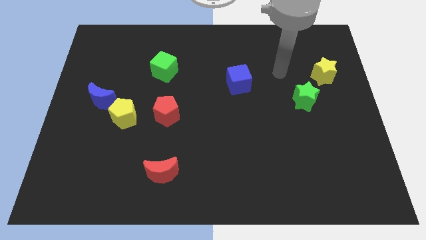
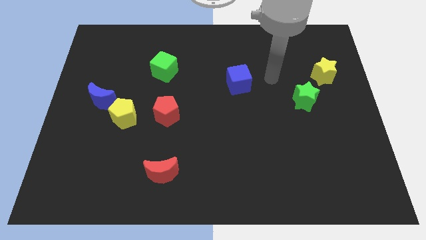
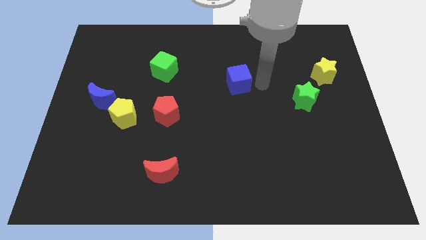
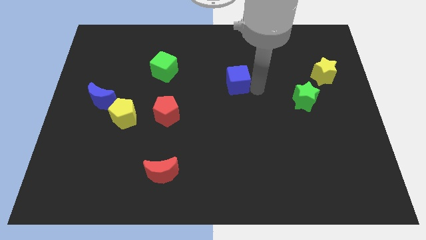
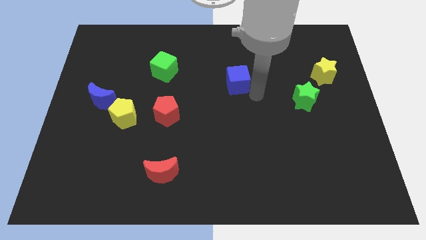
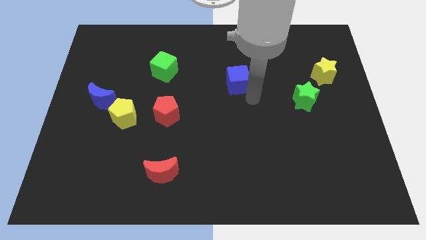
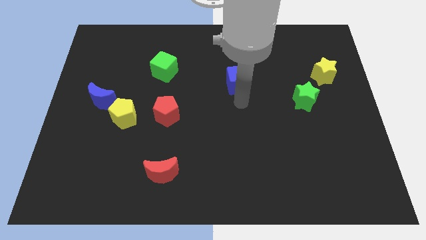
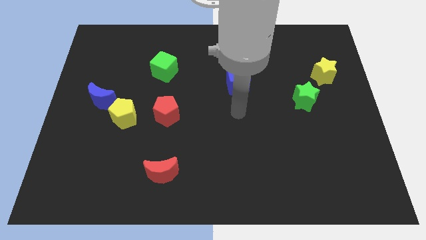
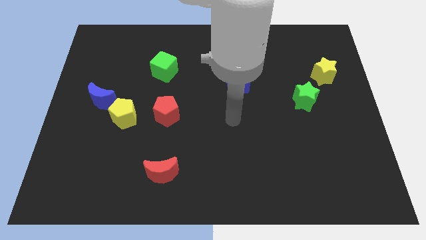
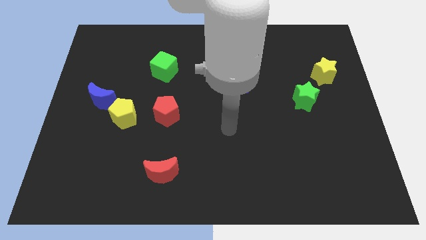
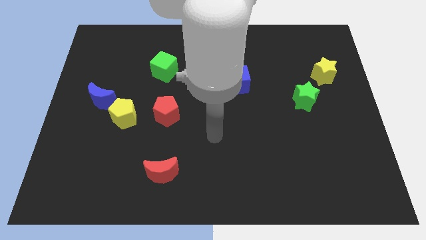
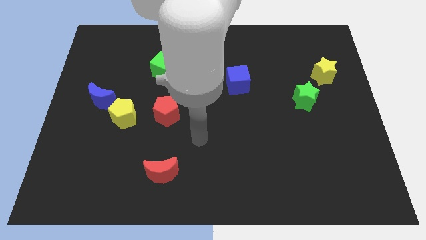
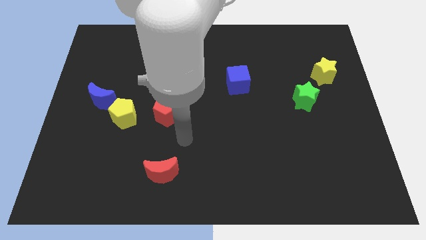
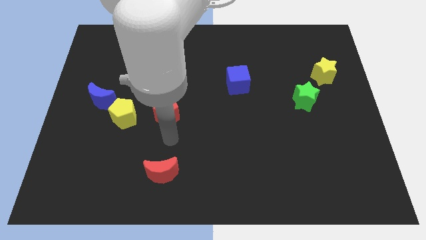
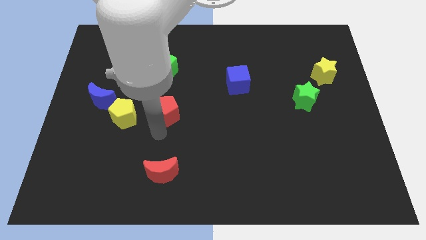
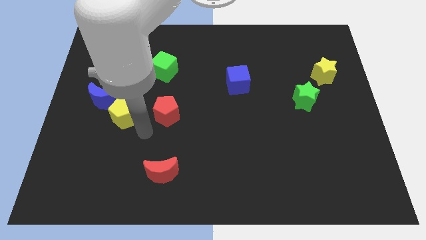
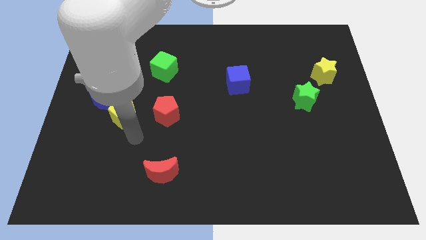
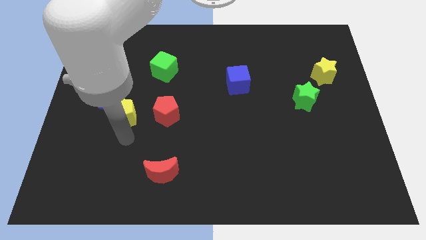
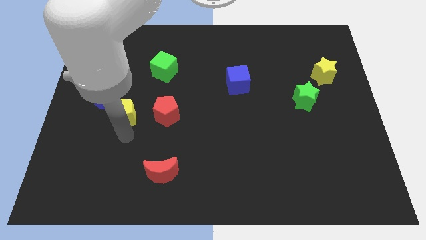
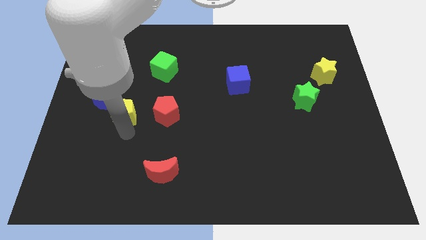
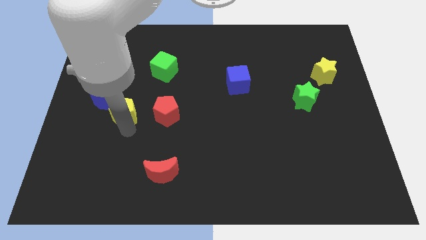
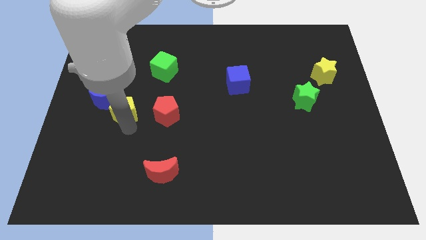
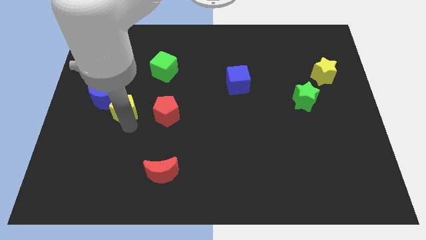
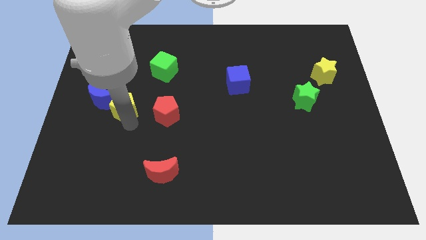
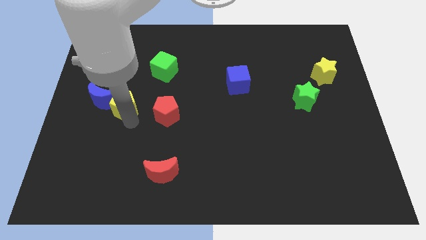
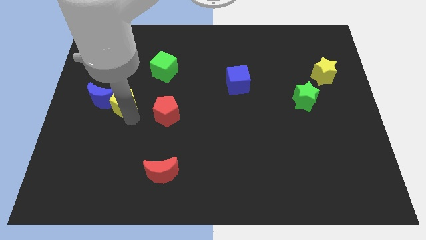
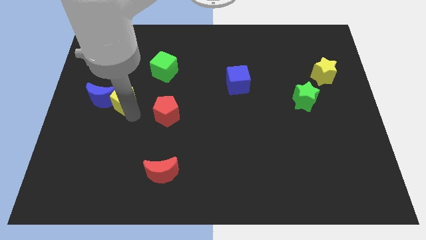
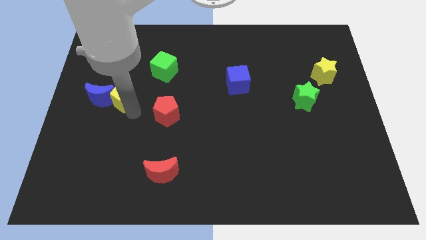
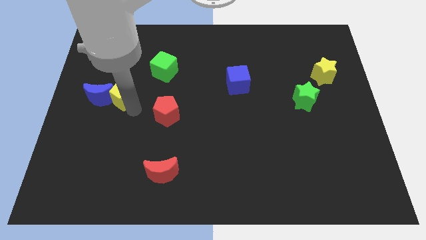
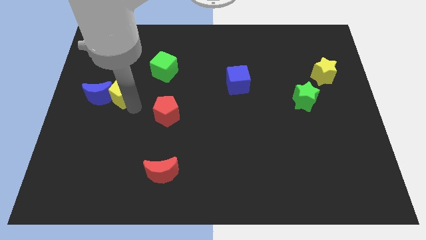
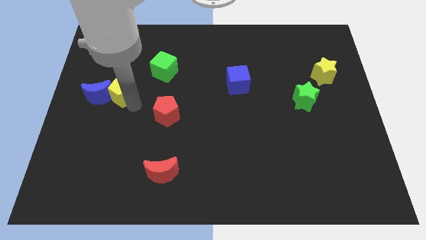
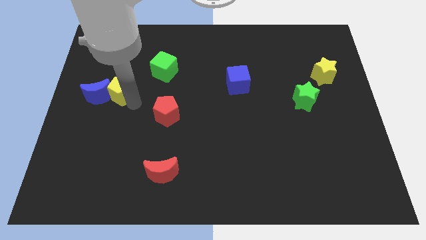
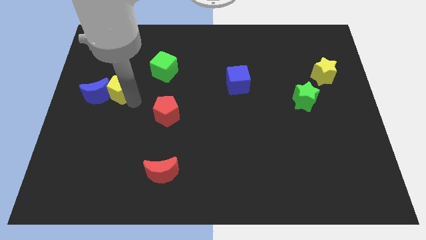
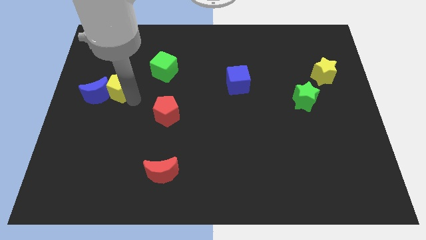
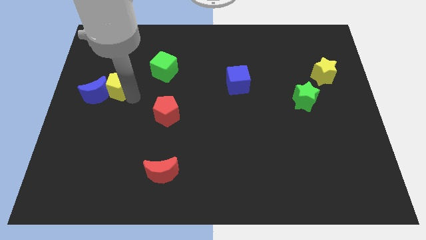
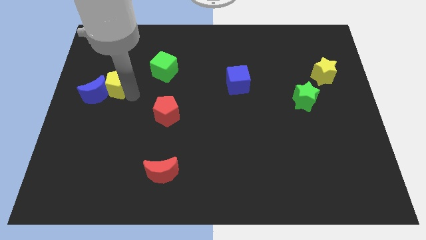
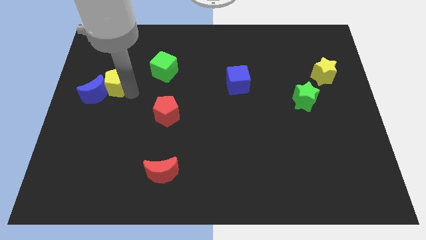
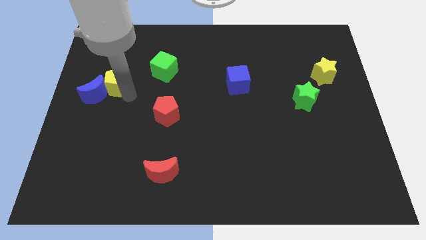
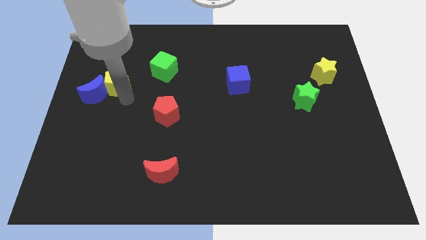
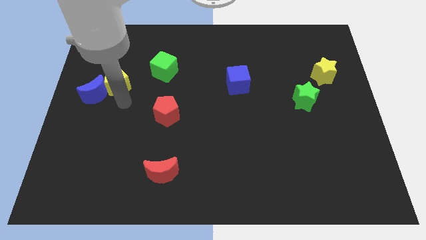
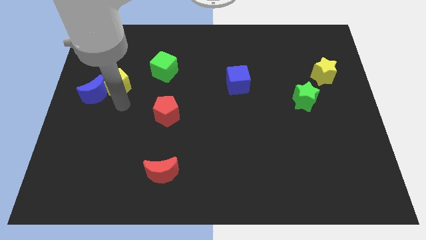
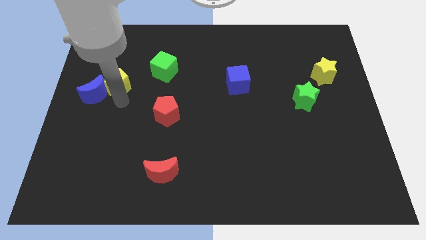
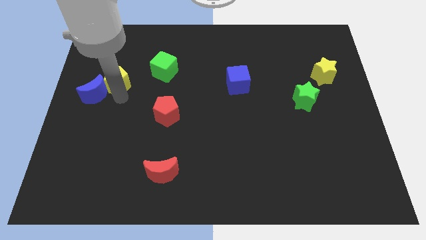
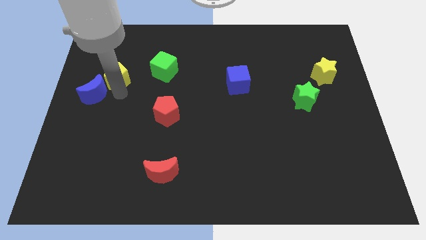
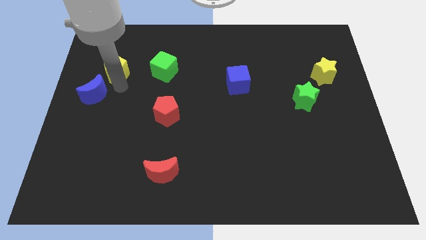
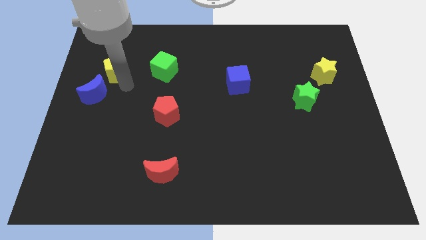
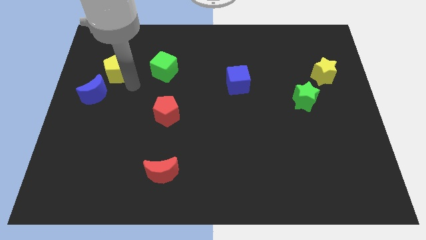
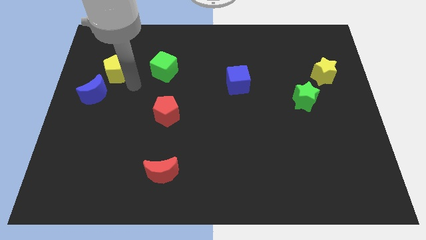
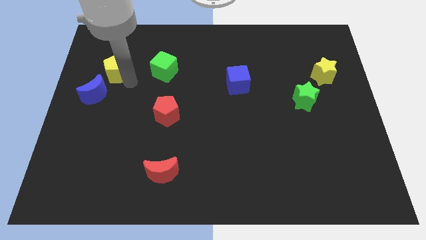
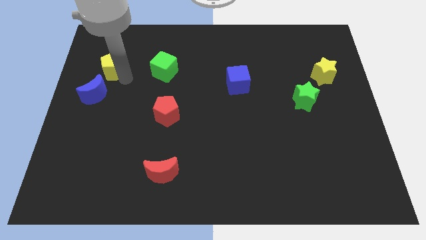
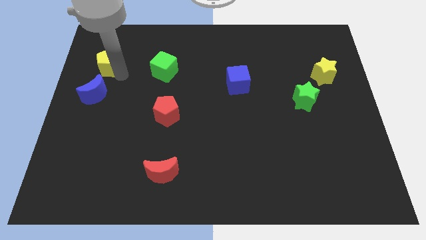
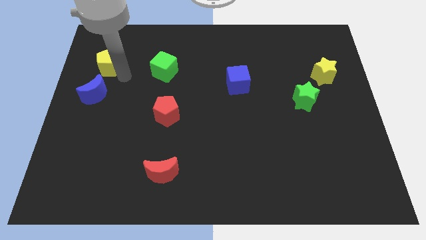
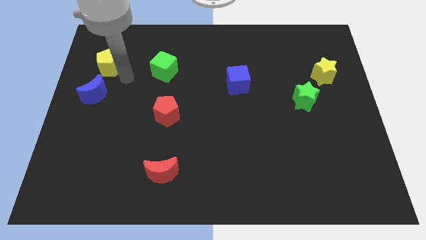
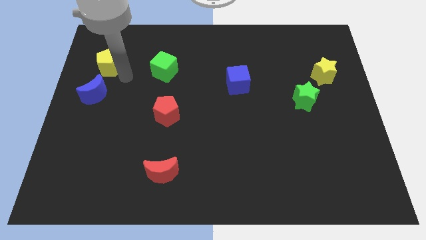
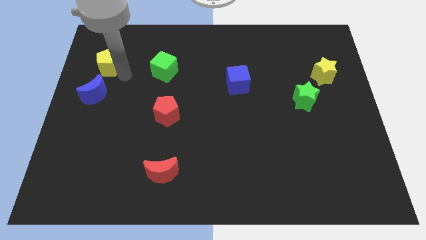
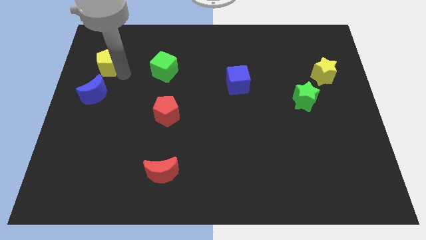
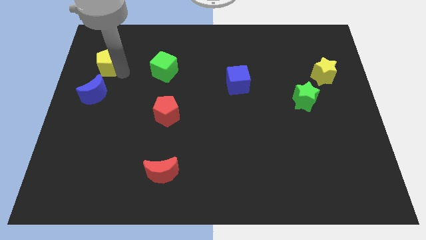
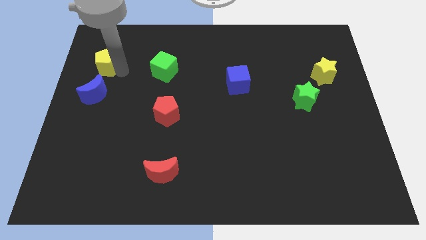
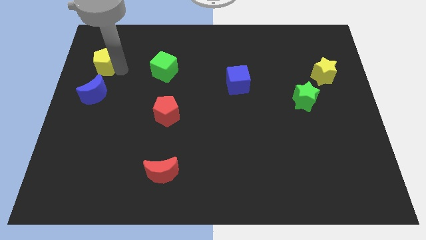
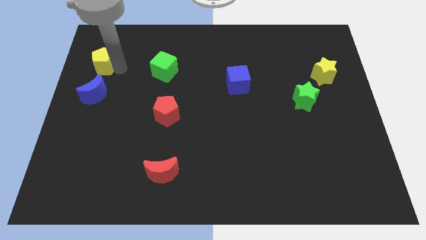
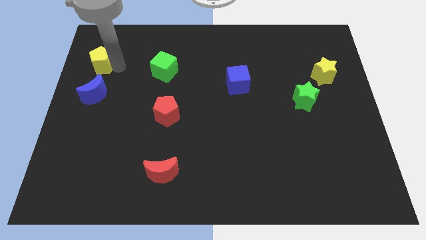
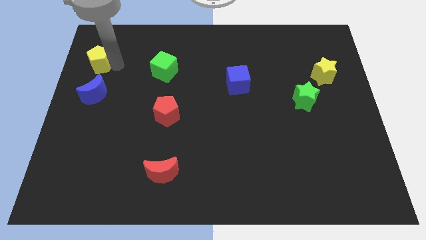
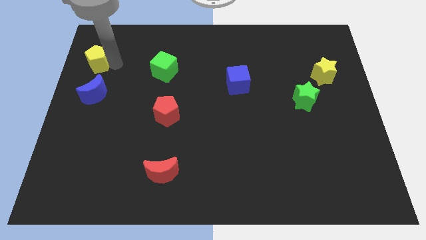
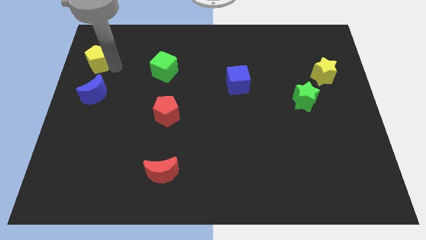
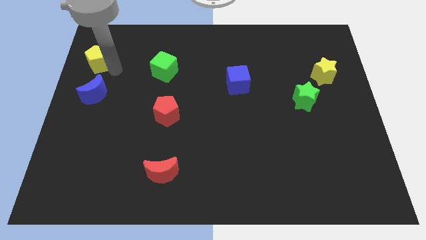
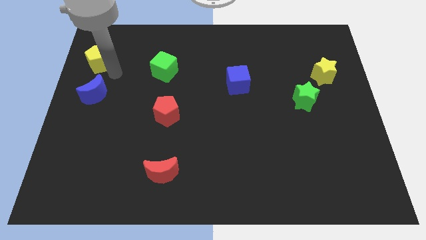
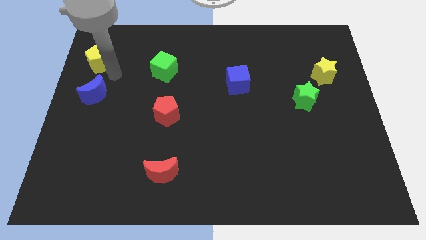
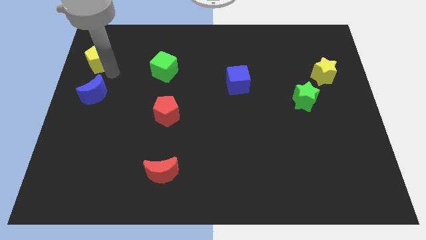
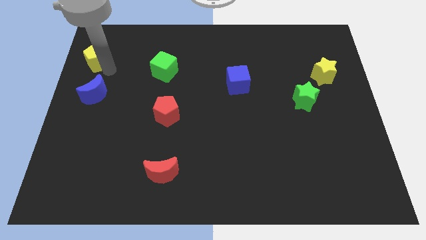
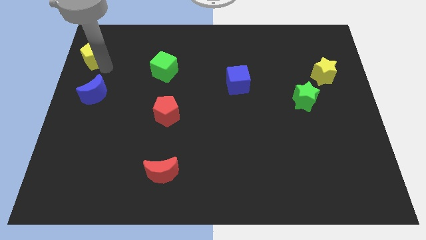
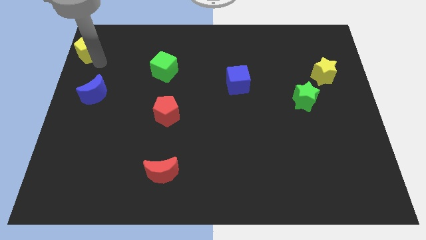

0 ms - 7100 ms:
put the yellow pentagon to the top left
